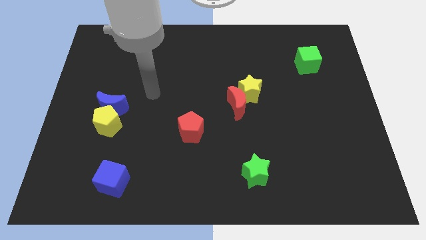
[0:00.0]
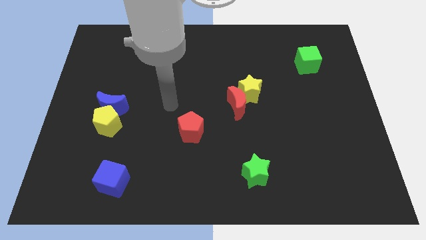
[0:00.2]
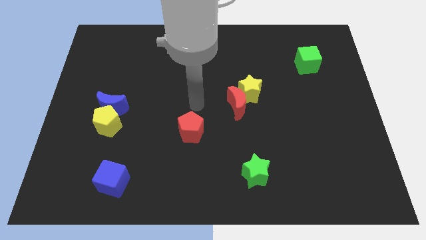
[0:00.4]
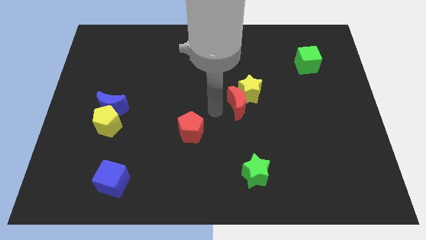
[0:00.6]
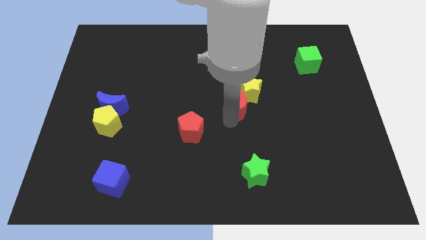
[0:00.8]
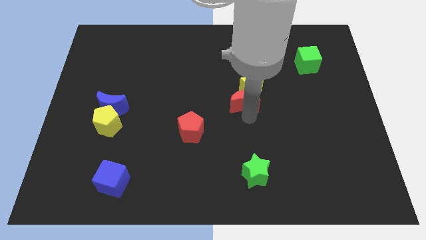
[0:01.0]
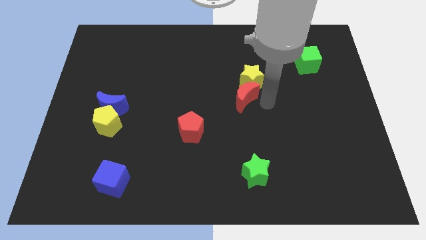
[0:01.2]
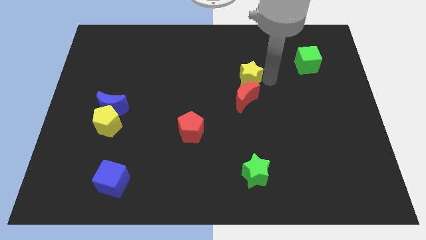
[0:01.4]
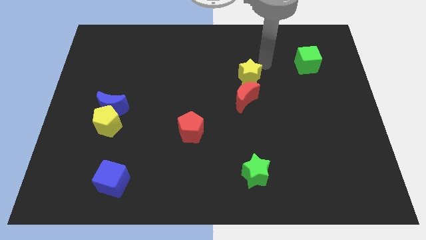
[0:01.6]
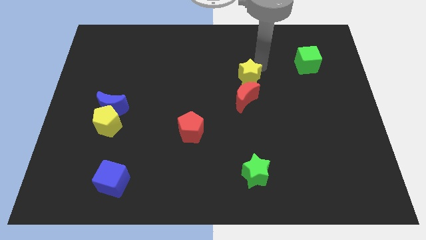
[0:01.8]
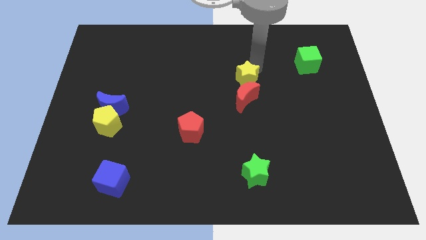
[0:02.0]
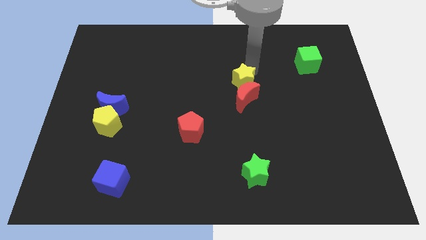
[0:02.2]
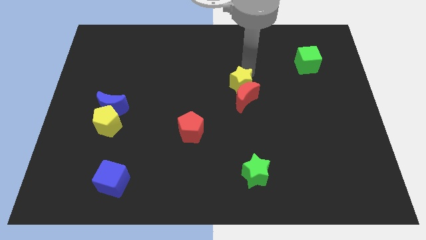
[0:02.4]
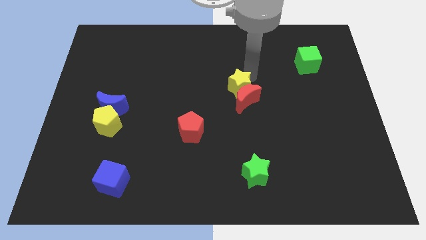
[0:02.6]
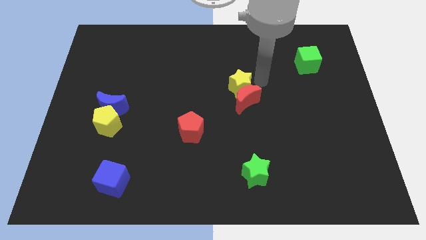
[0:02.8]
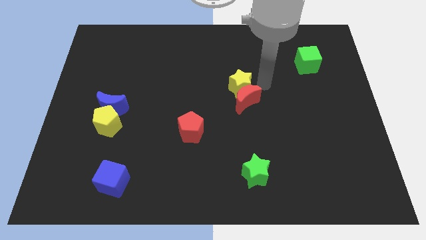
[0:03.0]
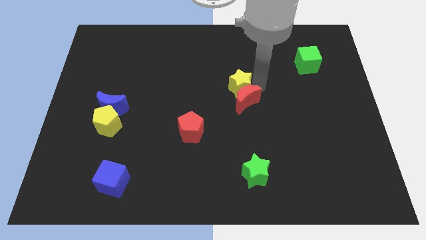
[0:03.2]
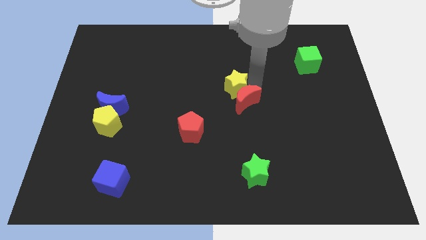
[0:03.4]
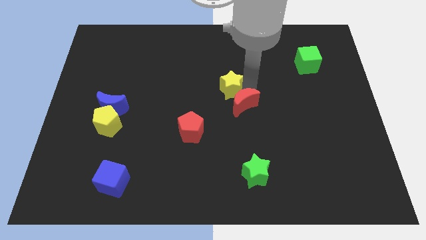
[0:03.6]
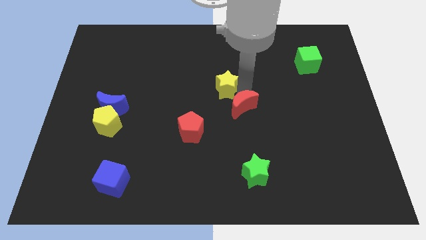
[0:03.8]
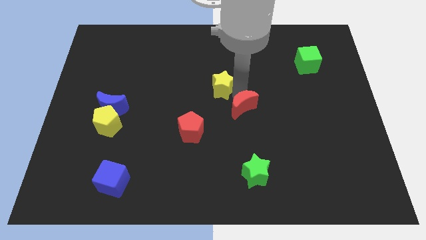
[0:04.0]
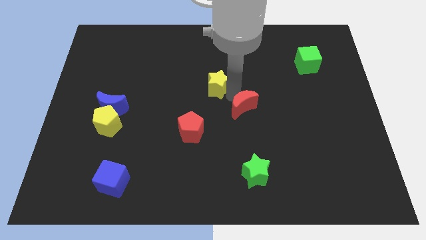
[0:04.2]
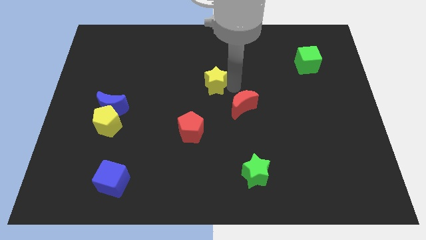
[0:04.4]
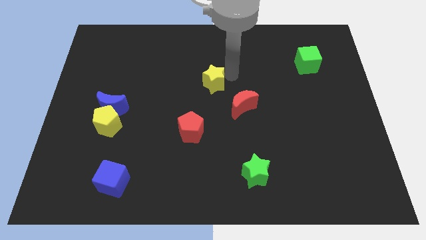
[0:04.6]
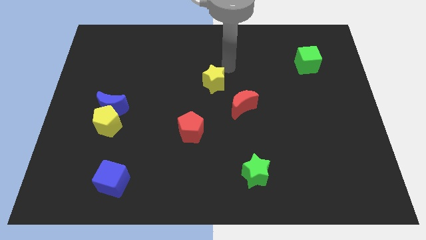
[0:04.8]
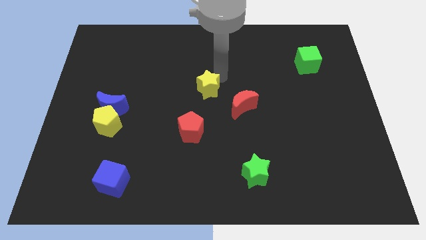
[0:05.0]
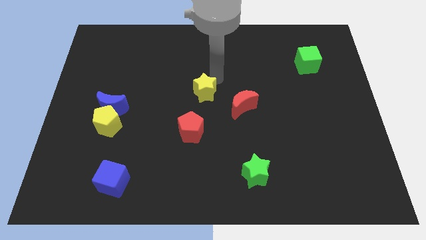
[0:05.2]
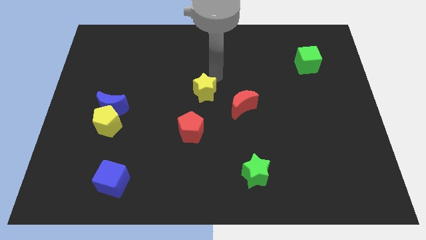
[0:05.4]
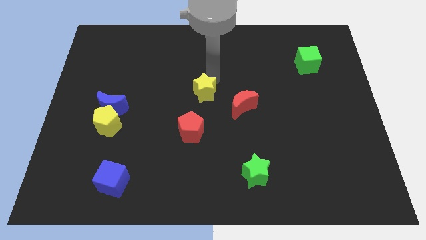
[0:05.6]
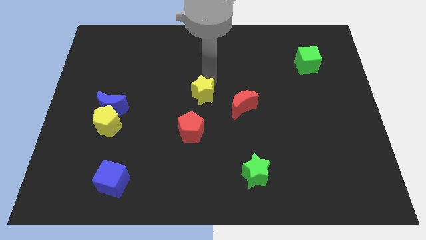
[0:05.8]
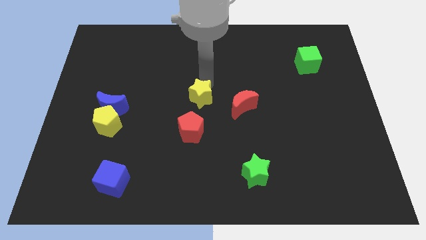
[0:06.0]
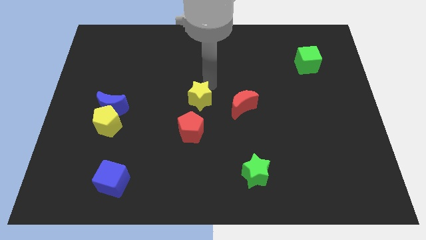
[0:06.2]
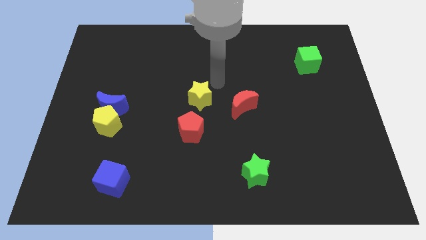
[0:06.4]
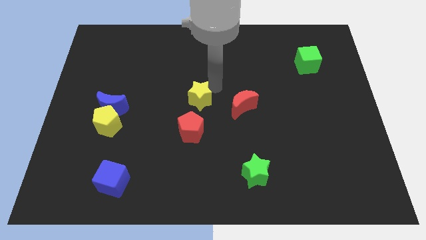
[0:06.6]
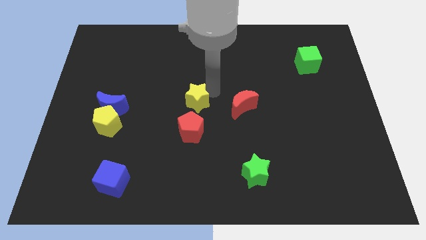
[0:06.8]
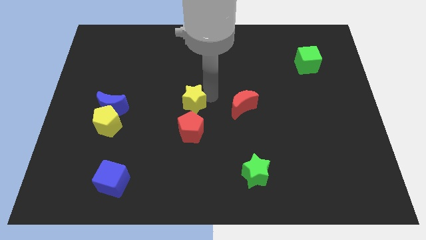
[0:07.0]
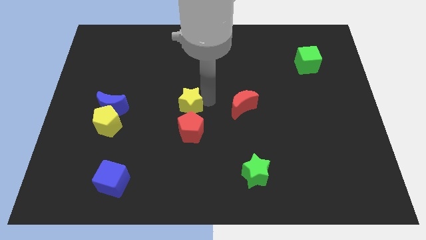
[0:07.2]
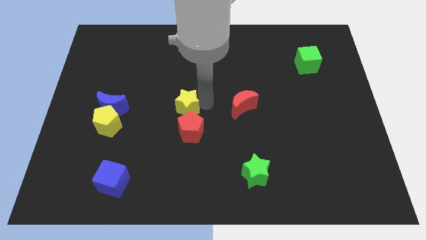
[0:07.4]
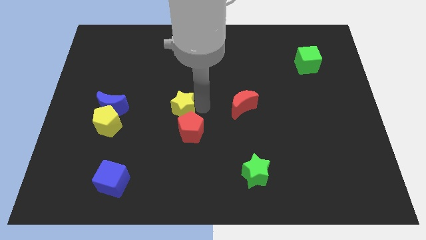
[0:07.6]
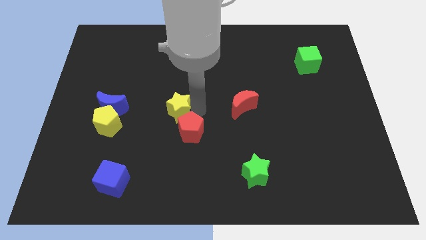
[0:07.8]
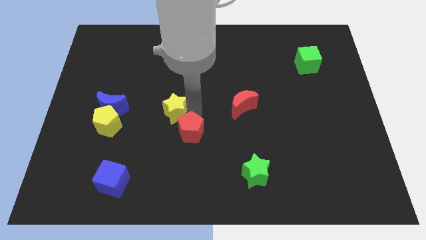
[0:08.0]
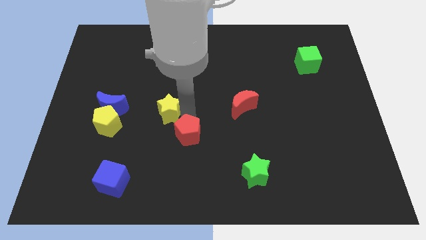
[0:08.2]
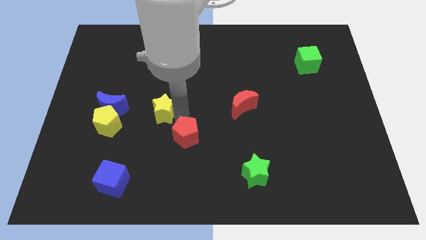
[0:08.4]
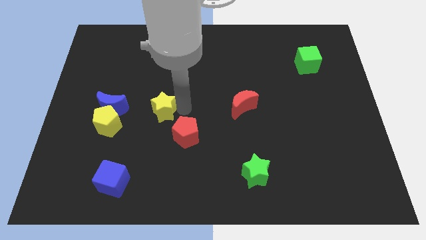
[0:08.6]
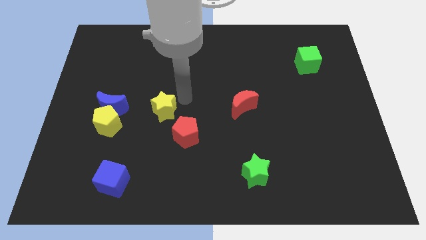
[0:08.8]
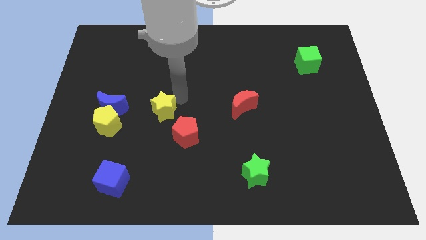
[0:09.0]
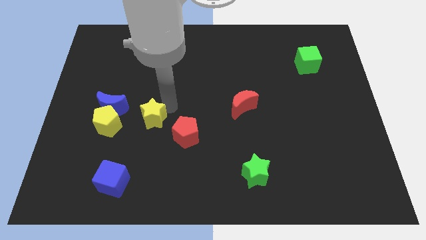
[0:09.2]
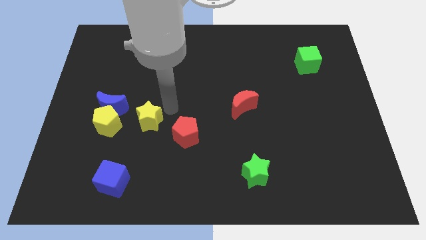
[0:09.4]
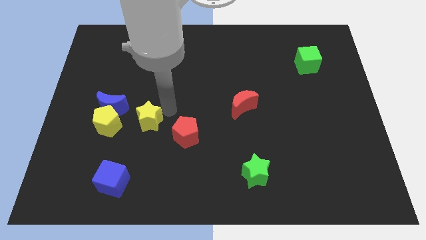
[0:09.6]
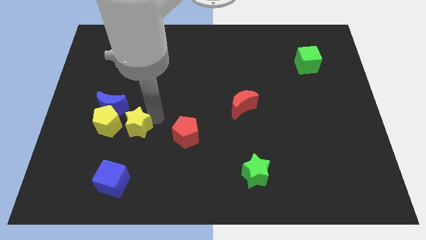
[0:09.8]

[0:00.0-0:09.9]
push the yellow star to the top side of the blue cube

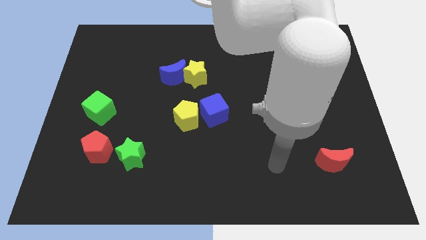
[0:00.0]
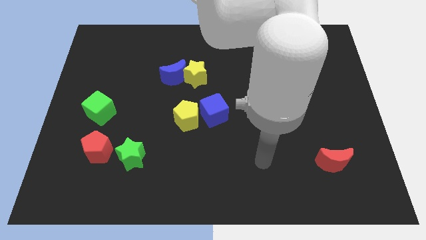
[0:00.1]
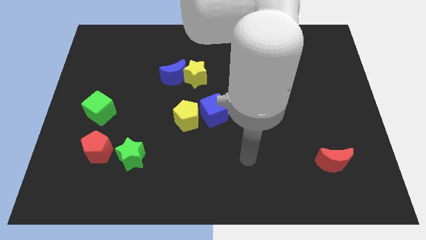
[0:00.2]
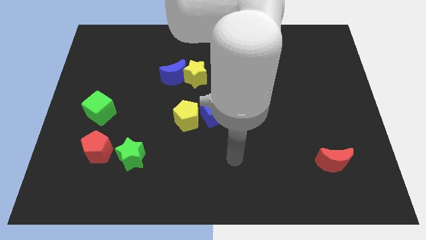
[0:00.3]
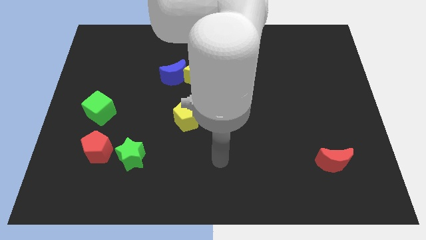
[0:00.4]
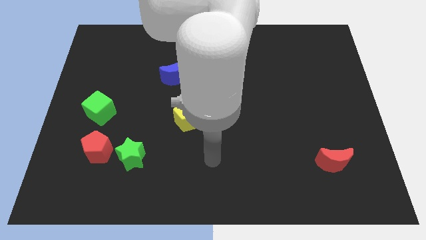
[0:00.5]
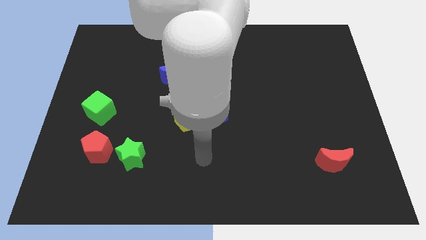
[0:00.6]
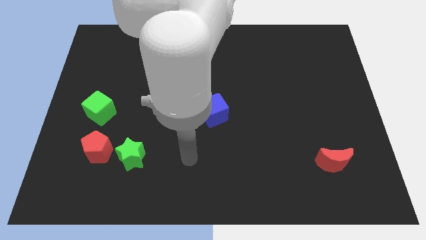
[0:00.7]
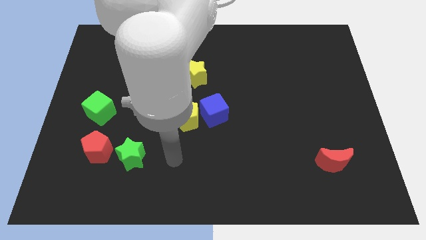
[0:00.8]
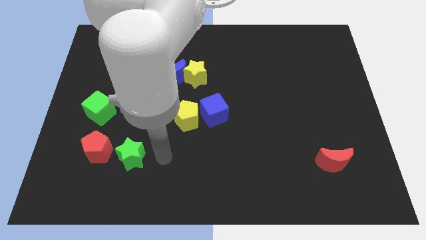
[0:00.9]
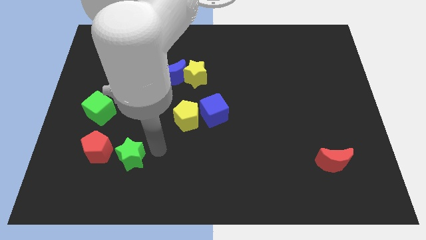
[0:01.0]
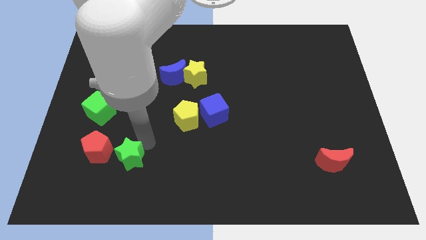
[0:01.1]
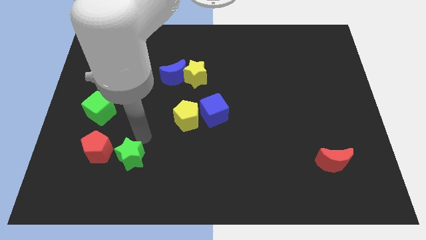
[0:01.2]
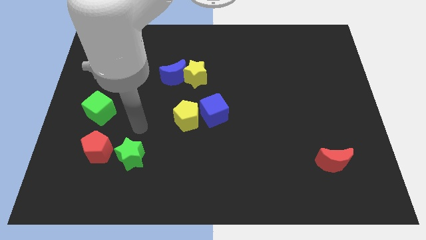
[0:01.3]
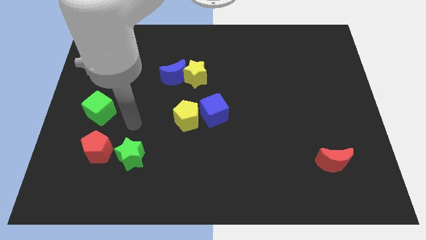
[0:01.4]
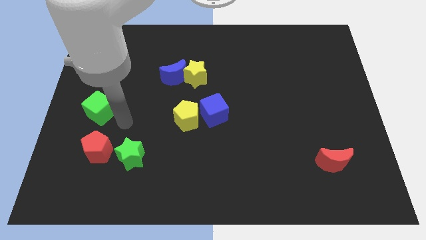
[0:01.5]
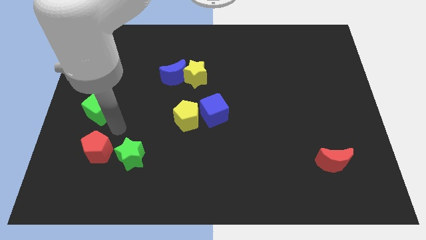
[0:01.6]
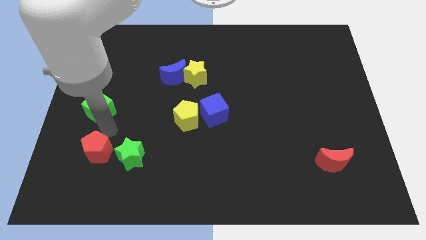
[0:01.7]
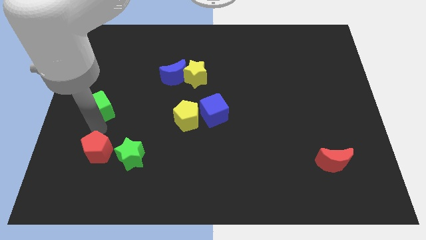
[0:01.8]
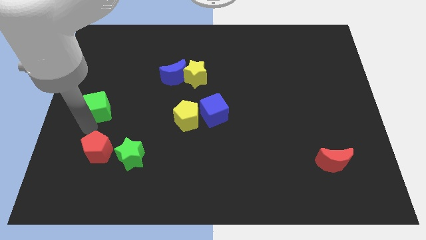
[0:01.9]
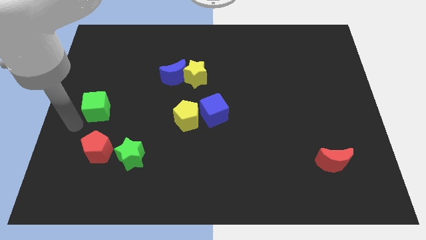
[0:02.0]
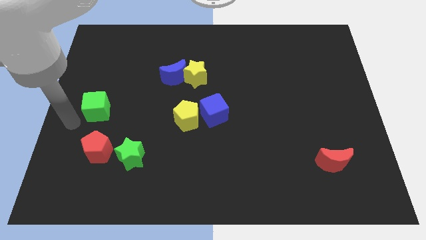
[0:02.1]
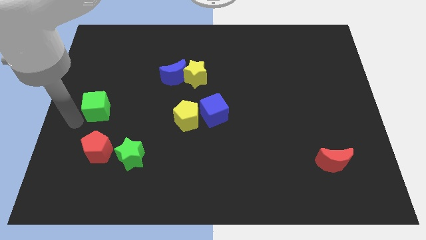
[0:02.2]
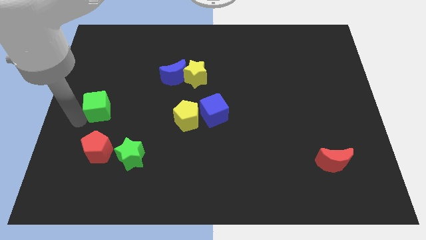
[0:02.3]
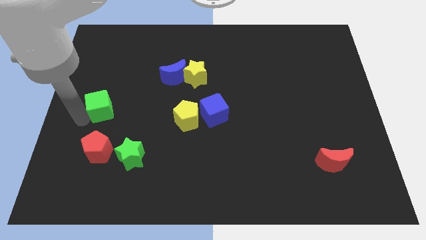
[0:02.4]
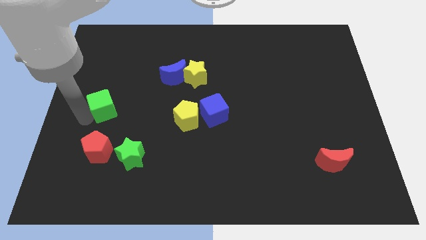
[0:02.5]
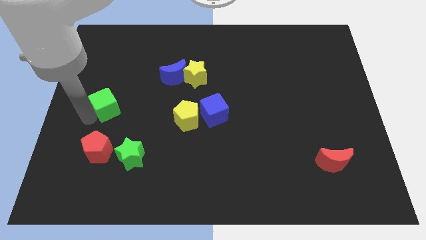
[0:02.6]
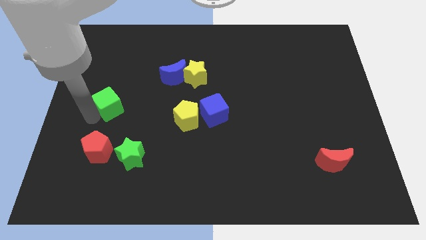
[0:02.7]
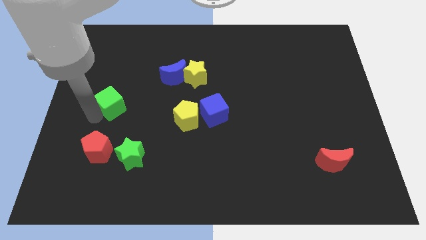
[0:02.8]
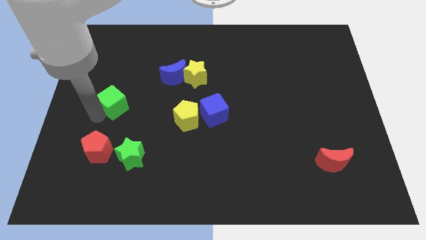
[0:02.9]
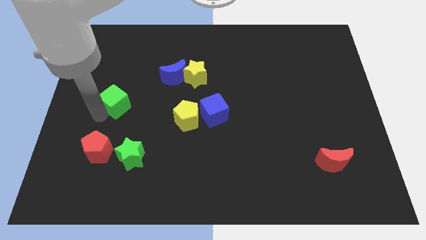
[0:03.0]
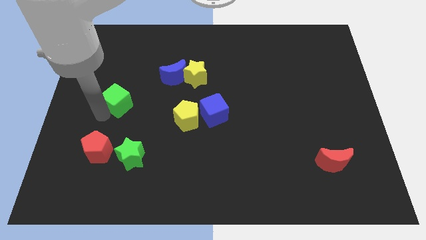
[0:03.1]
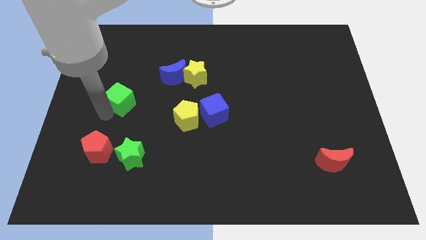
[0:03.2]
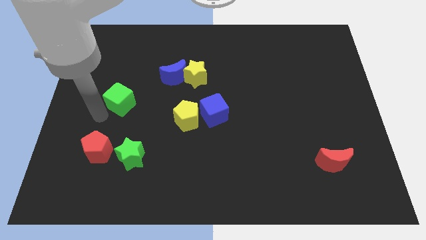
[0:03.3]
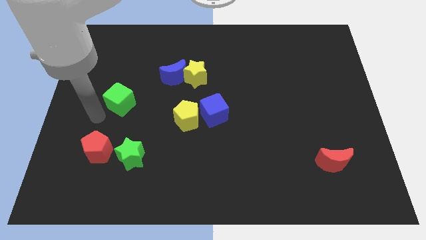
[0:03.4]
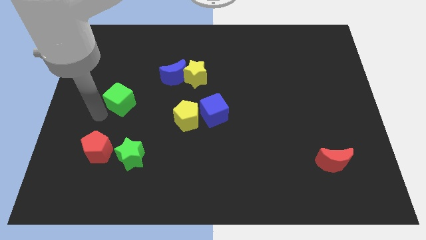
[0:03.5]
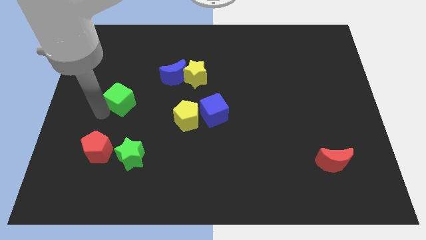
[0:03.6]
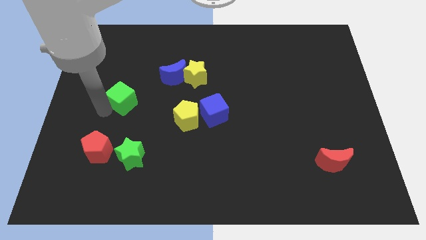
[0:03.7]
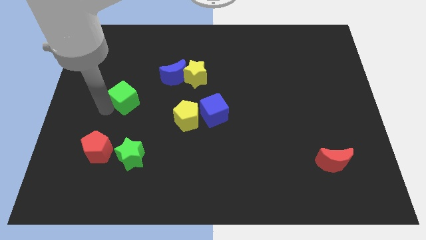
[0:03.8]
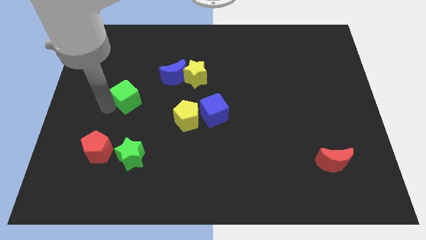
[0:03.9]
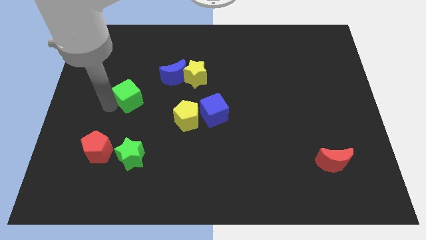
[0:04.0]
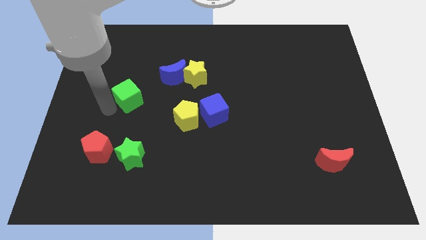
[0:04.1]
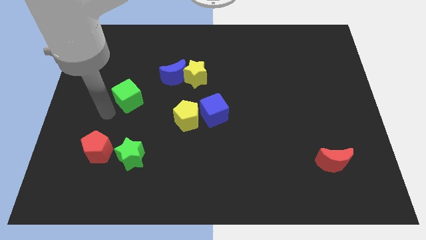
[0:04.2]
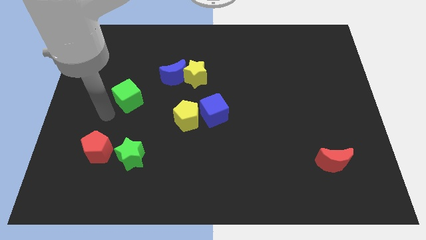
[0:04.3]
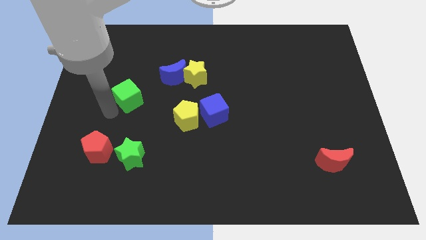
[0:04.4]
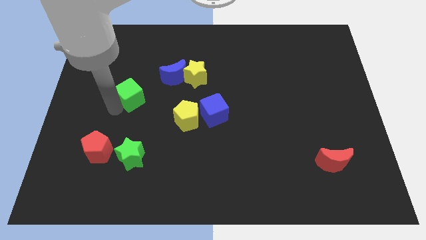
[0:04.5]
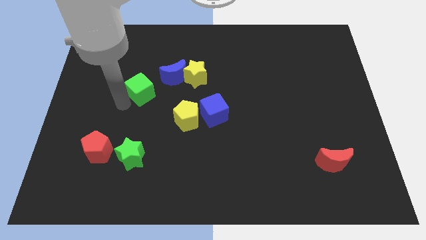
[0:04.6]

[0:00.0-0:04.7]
push the green cube left of the yellow star
